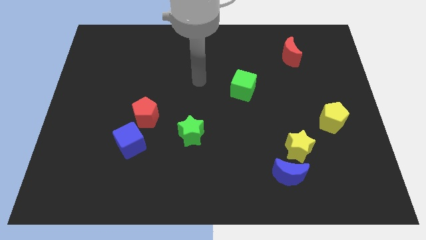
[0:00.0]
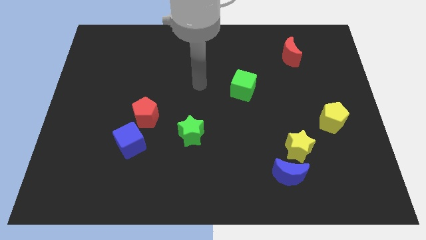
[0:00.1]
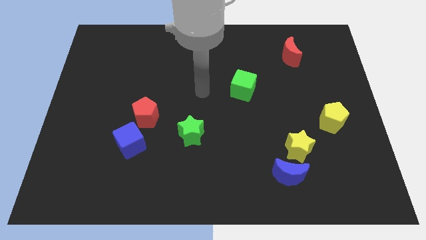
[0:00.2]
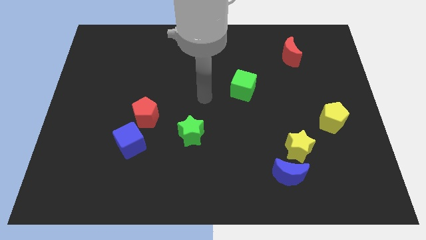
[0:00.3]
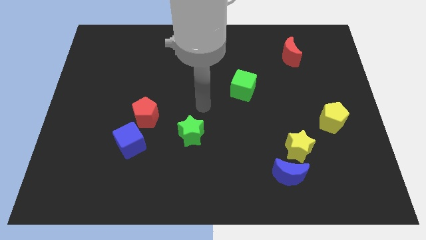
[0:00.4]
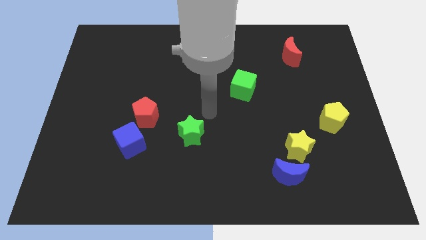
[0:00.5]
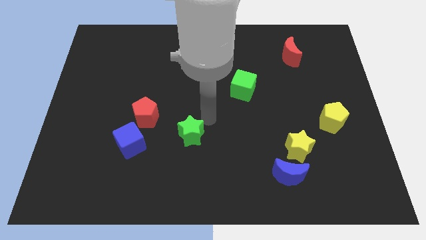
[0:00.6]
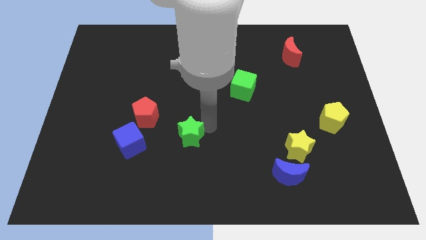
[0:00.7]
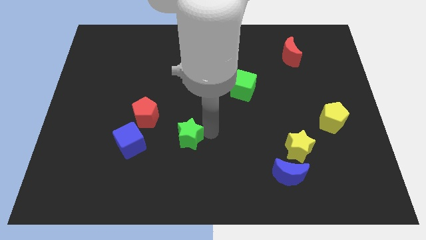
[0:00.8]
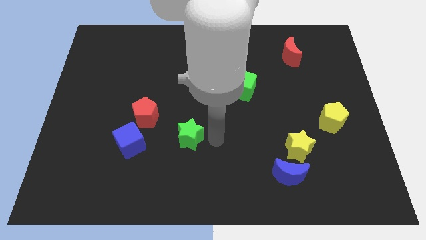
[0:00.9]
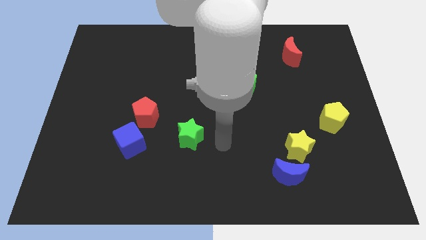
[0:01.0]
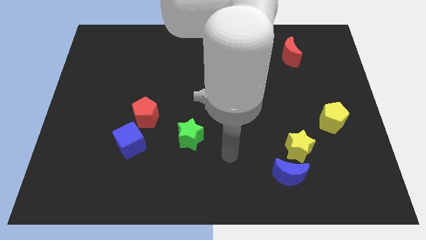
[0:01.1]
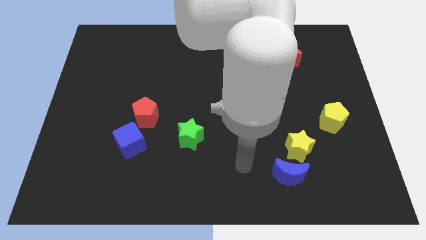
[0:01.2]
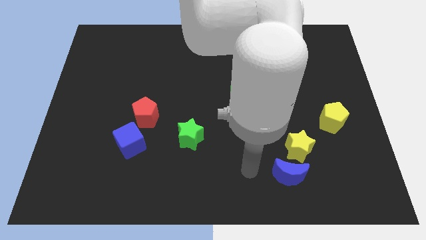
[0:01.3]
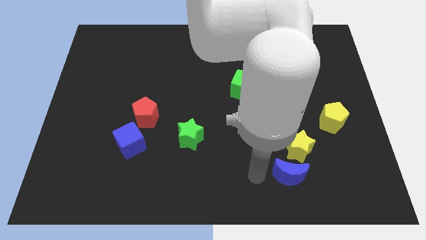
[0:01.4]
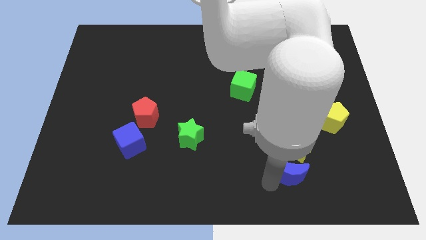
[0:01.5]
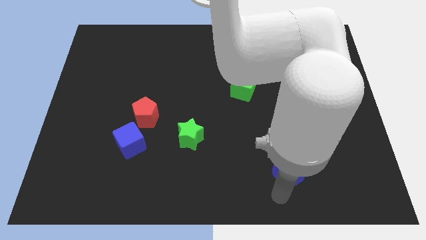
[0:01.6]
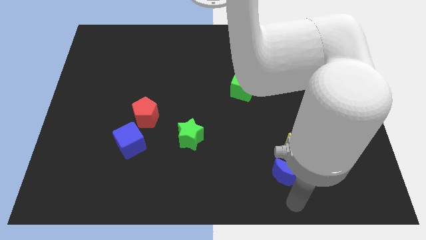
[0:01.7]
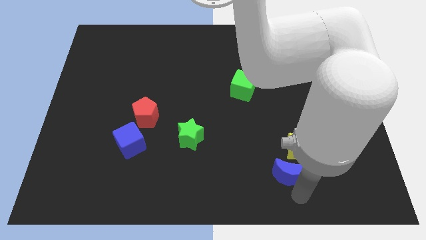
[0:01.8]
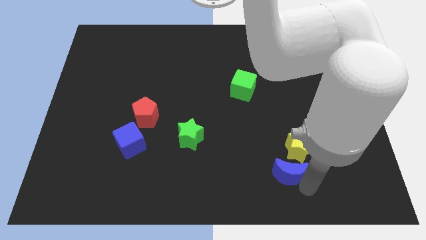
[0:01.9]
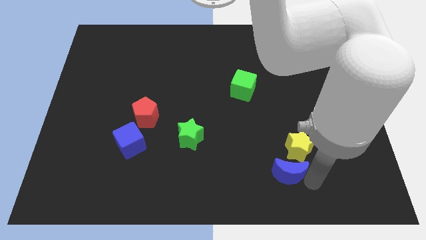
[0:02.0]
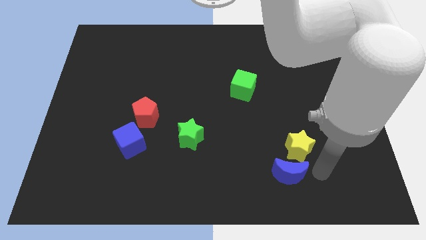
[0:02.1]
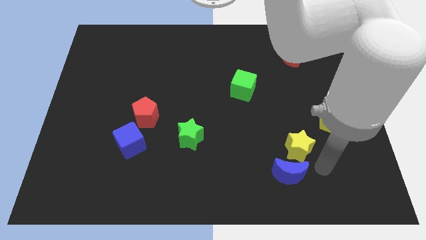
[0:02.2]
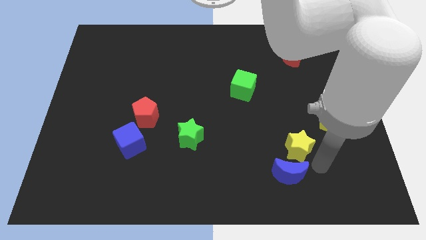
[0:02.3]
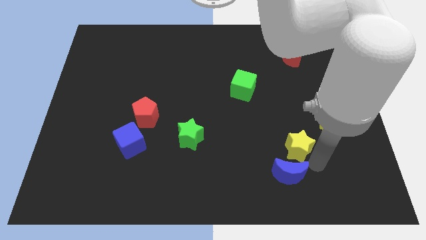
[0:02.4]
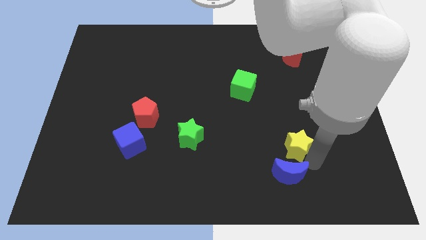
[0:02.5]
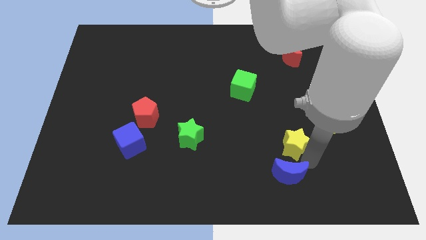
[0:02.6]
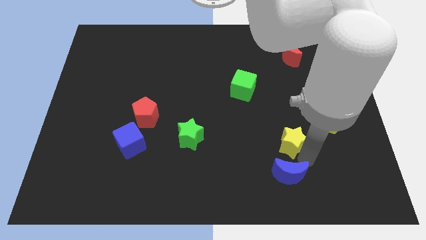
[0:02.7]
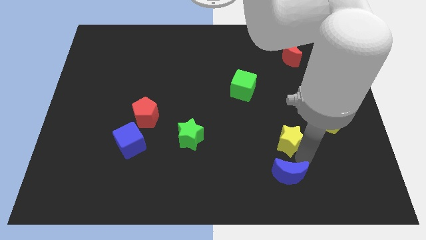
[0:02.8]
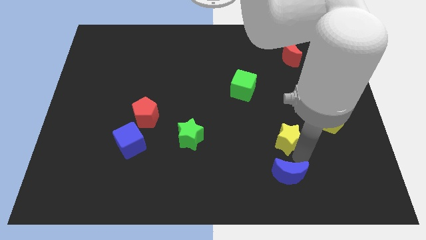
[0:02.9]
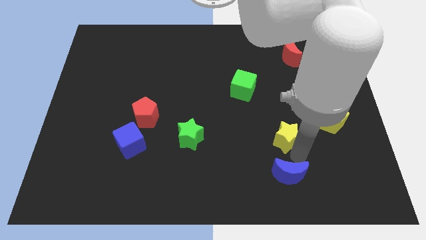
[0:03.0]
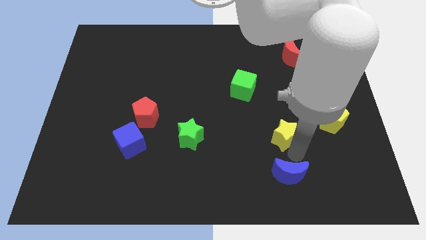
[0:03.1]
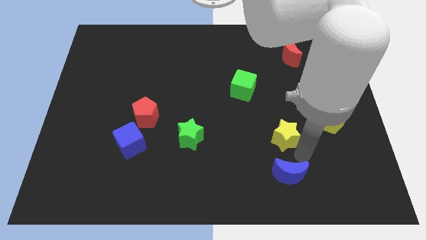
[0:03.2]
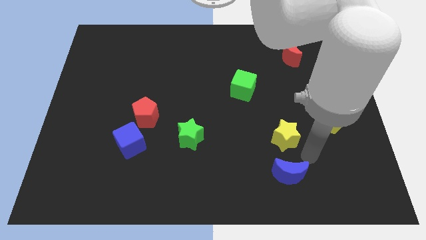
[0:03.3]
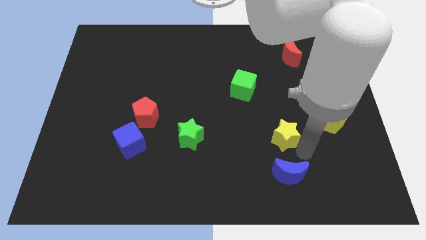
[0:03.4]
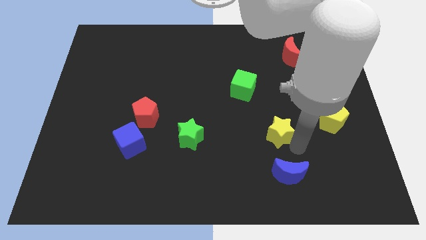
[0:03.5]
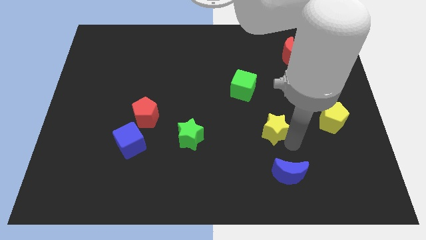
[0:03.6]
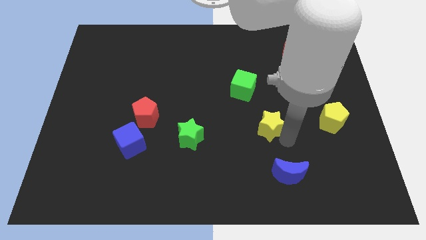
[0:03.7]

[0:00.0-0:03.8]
push the yellow star up and to the left a little bit

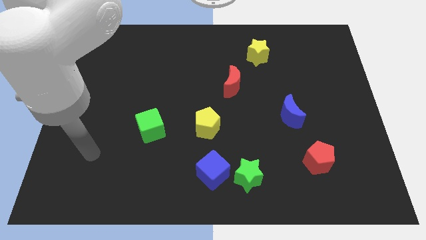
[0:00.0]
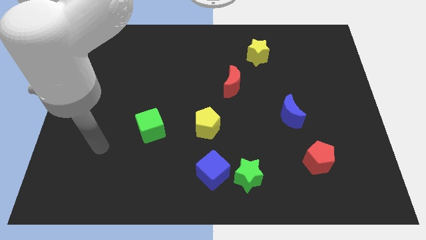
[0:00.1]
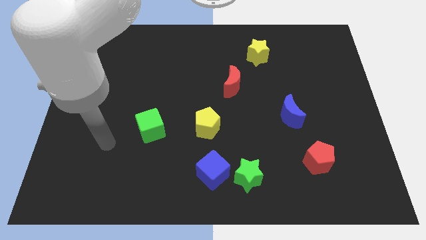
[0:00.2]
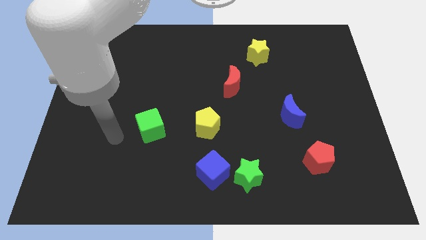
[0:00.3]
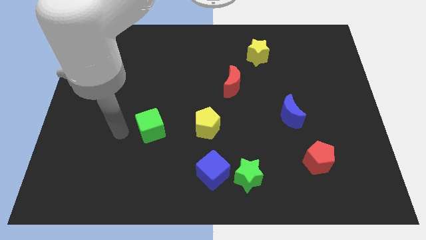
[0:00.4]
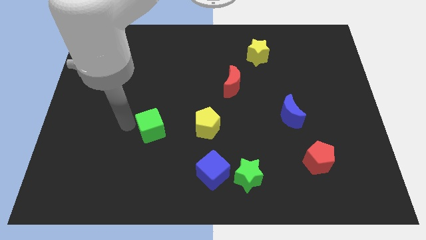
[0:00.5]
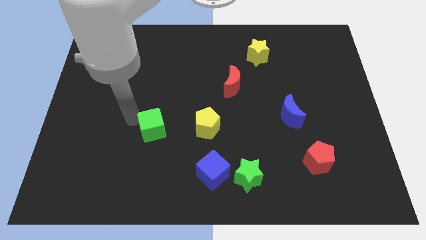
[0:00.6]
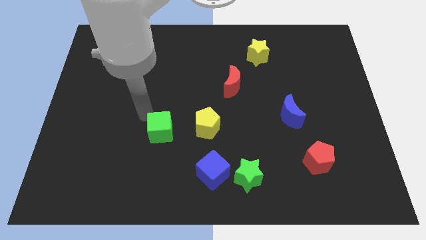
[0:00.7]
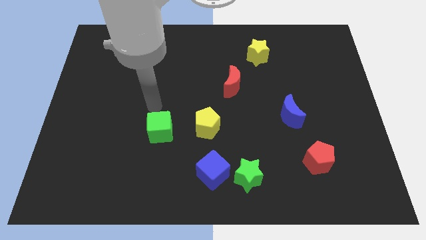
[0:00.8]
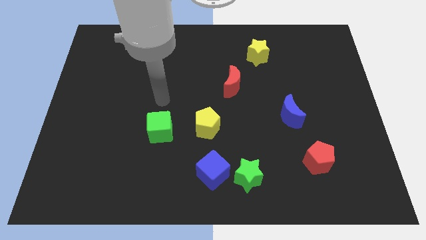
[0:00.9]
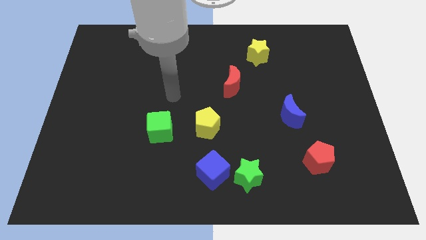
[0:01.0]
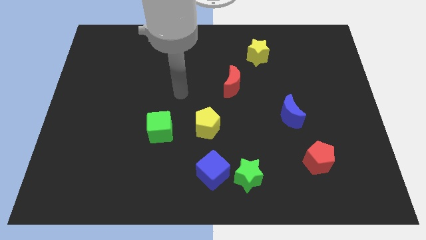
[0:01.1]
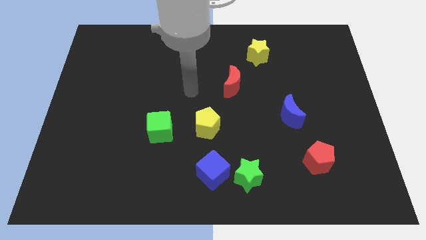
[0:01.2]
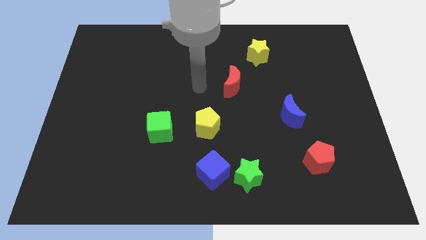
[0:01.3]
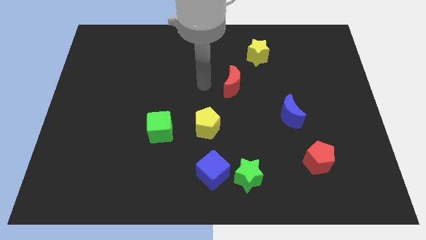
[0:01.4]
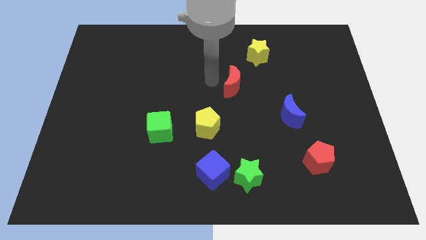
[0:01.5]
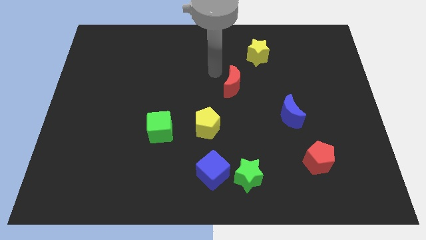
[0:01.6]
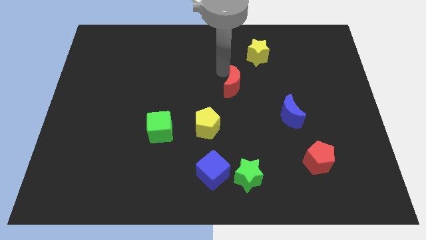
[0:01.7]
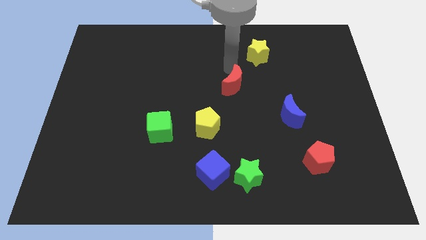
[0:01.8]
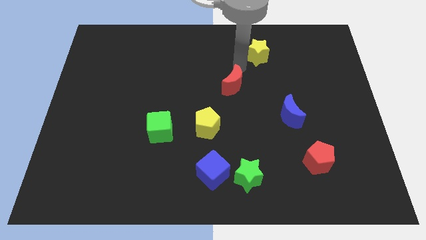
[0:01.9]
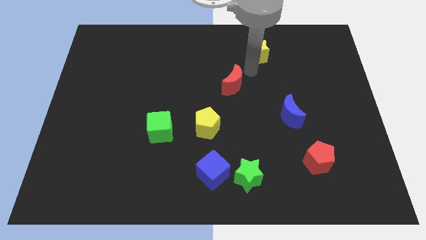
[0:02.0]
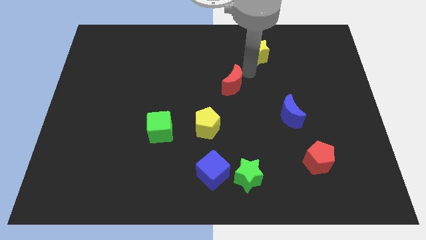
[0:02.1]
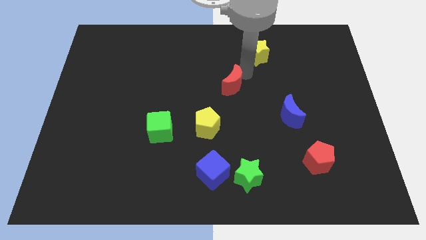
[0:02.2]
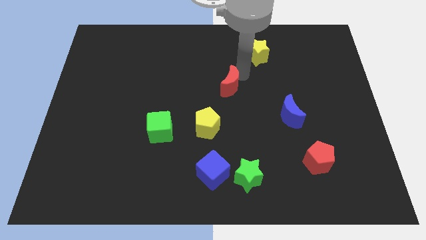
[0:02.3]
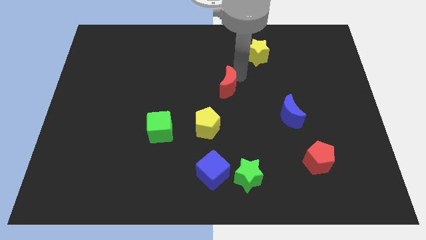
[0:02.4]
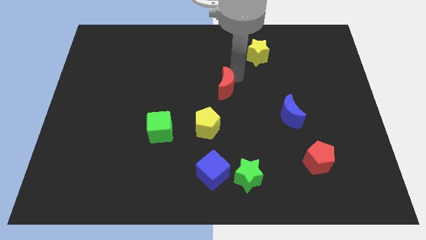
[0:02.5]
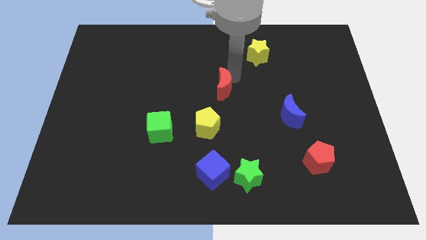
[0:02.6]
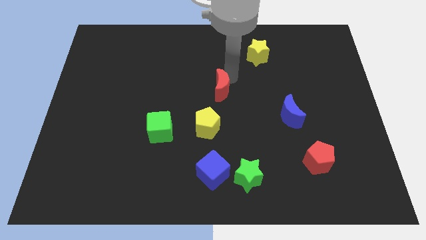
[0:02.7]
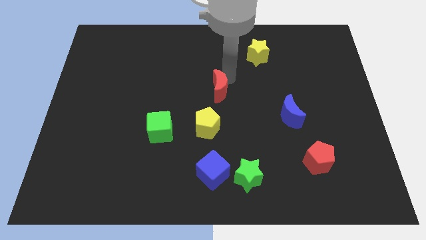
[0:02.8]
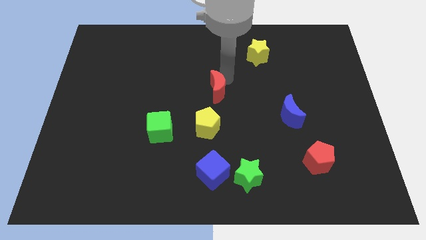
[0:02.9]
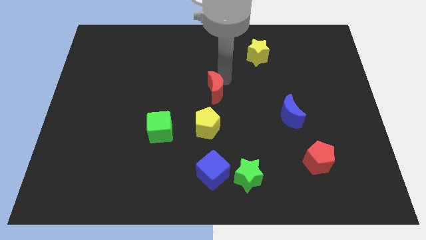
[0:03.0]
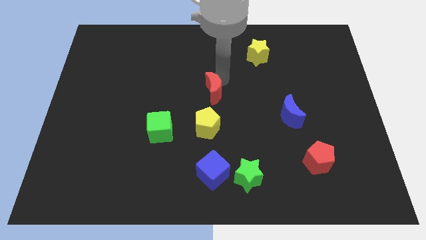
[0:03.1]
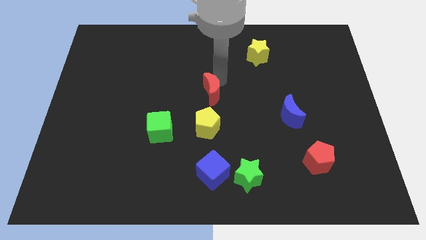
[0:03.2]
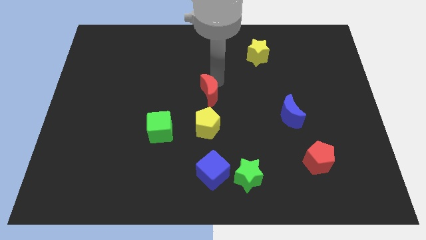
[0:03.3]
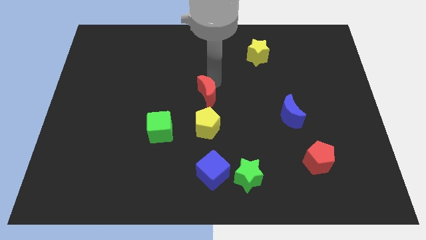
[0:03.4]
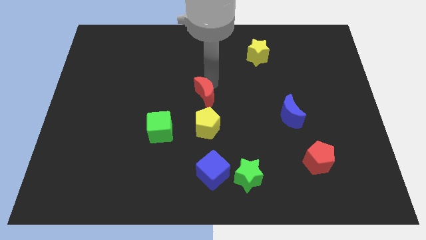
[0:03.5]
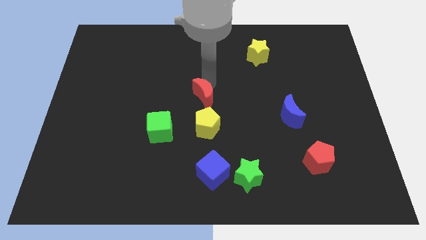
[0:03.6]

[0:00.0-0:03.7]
push the red moon downwards and to the left a bit

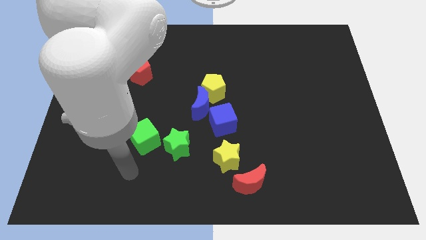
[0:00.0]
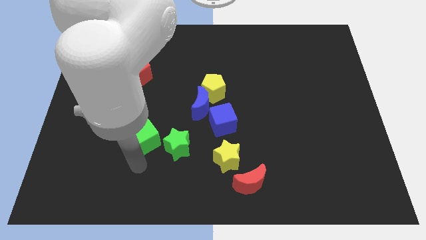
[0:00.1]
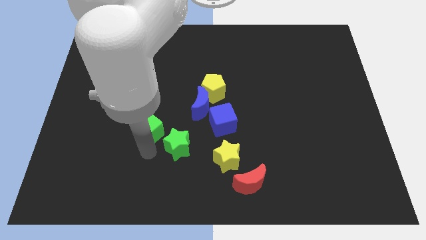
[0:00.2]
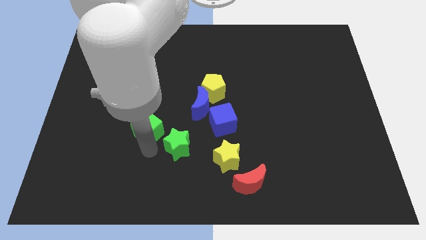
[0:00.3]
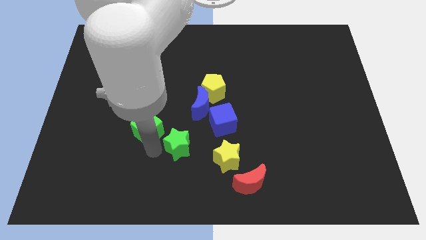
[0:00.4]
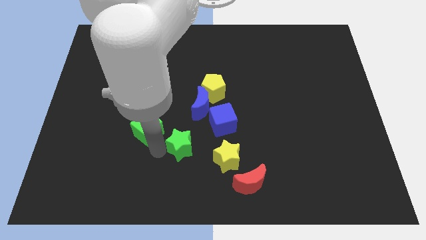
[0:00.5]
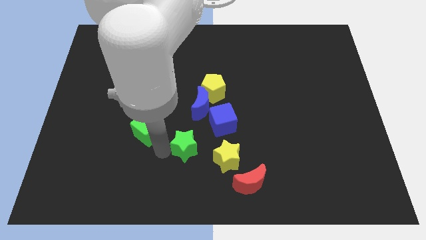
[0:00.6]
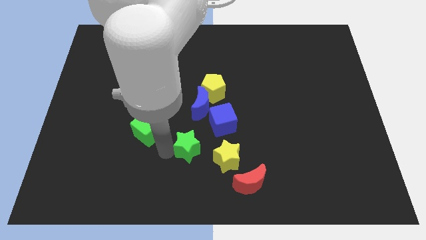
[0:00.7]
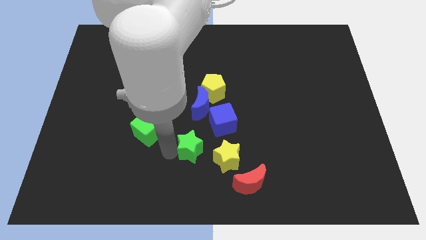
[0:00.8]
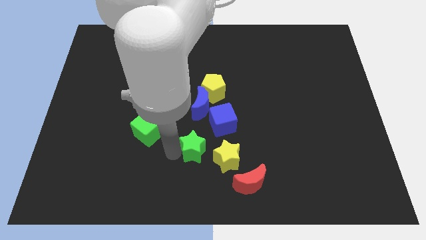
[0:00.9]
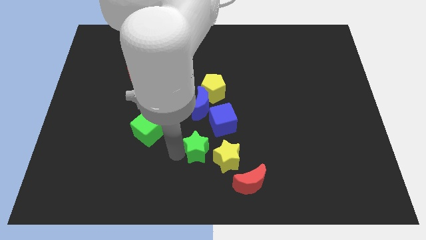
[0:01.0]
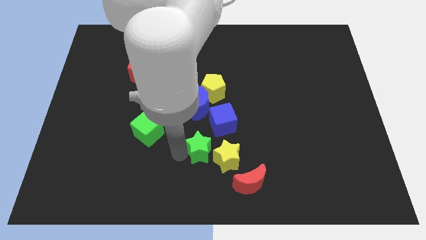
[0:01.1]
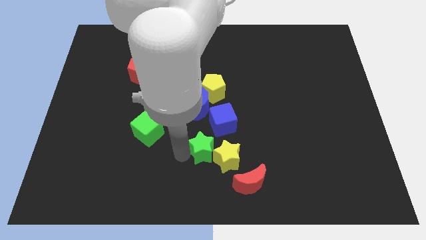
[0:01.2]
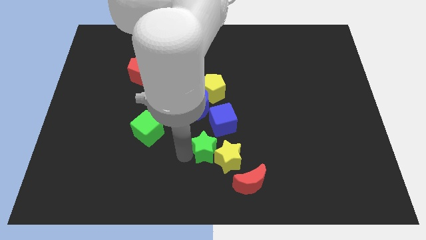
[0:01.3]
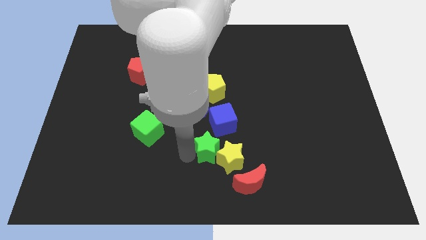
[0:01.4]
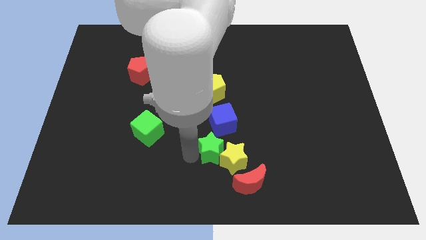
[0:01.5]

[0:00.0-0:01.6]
move the green star right slightly
